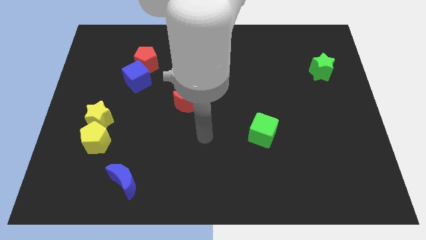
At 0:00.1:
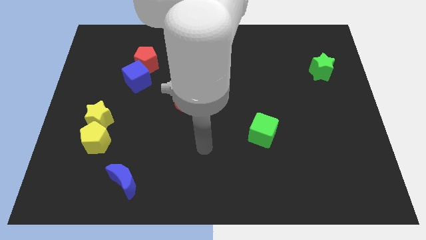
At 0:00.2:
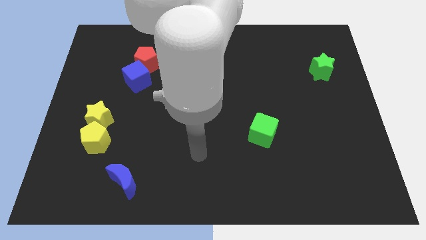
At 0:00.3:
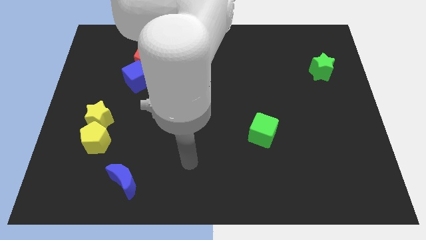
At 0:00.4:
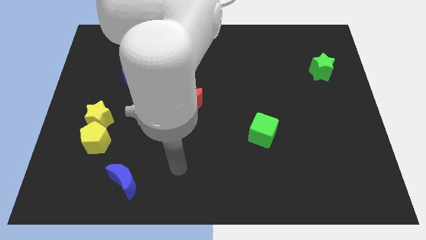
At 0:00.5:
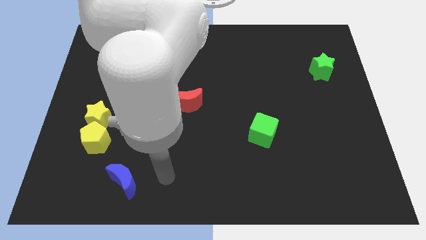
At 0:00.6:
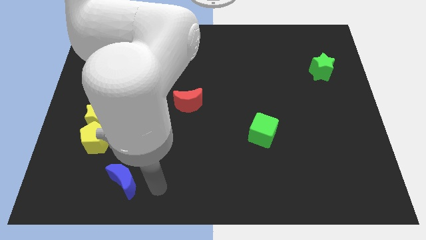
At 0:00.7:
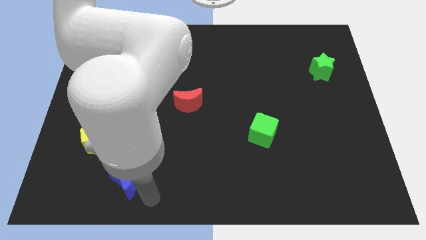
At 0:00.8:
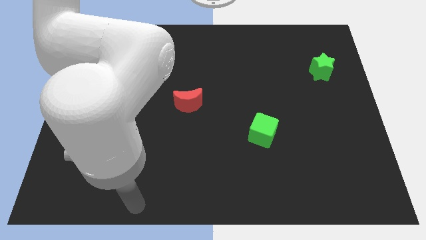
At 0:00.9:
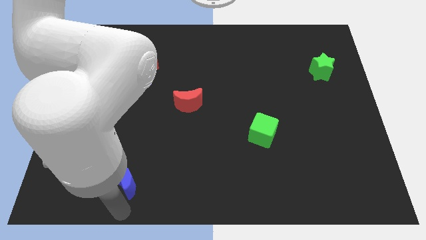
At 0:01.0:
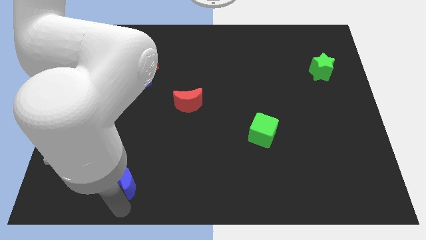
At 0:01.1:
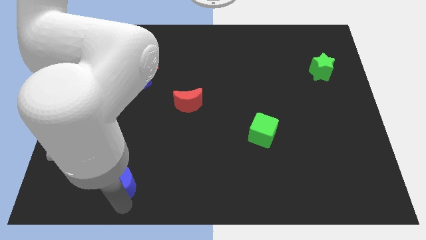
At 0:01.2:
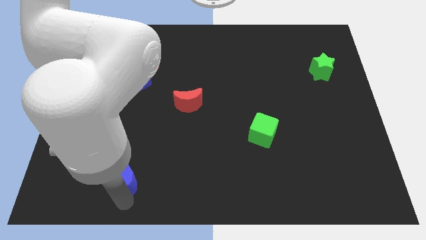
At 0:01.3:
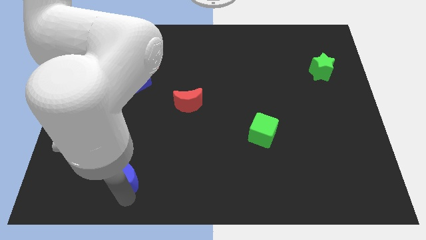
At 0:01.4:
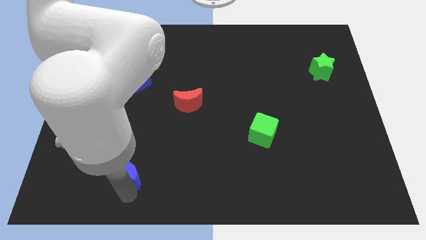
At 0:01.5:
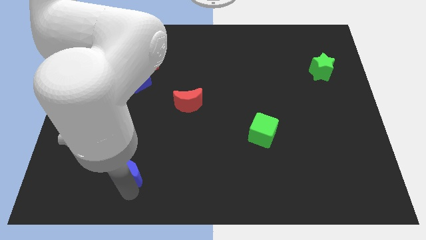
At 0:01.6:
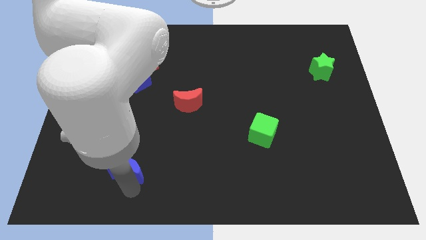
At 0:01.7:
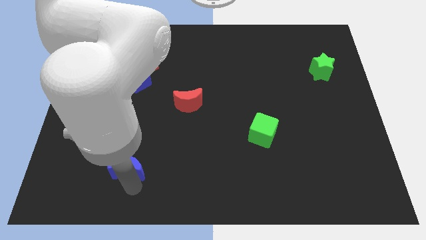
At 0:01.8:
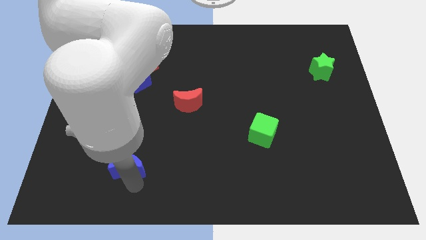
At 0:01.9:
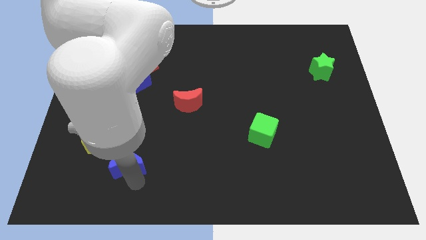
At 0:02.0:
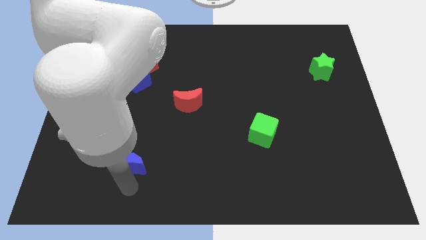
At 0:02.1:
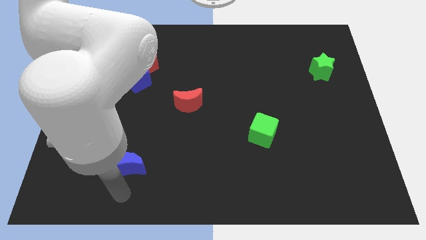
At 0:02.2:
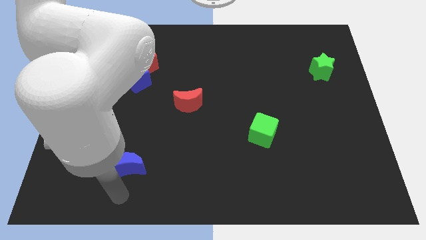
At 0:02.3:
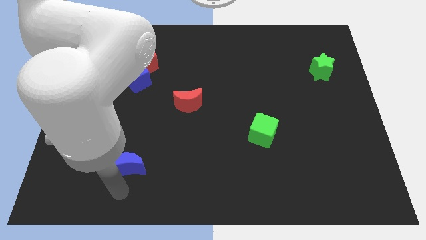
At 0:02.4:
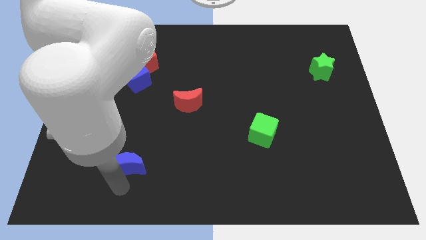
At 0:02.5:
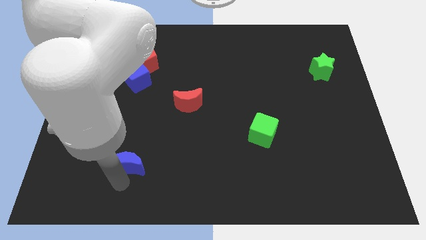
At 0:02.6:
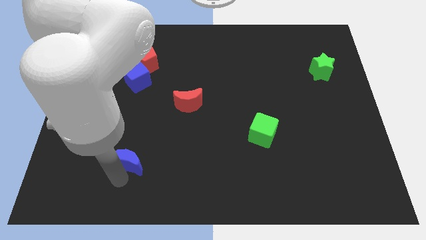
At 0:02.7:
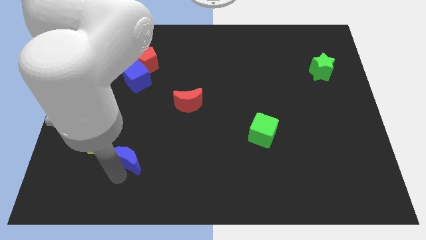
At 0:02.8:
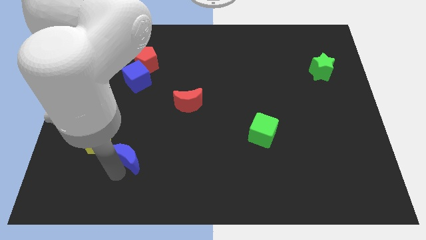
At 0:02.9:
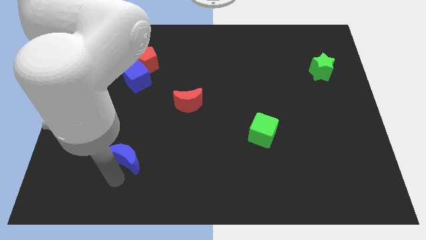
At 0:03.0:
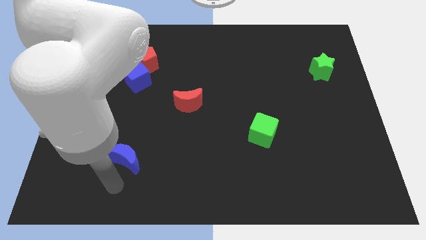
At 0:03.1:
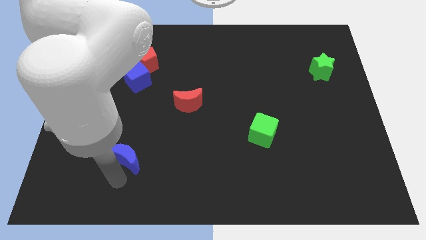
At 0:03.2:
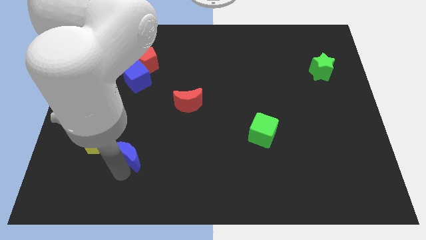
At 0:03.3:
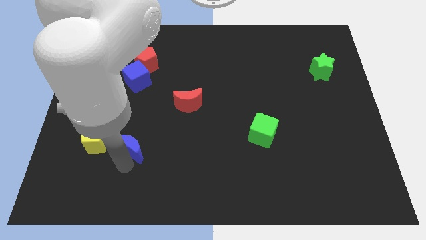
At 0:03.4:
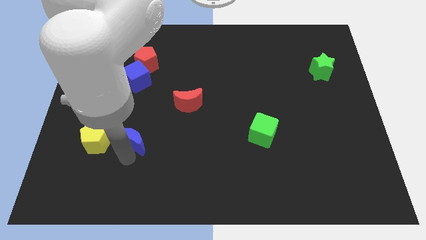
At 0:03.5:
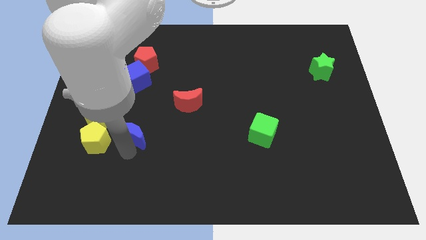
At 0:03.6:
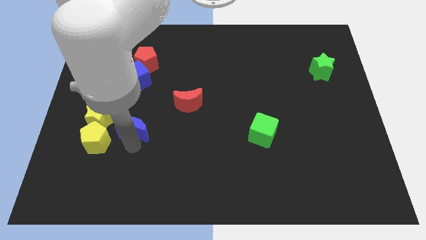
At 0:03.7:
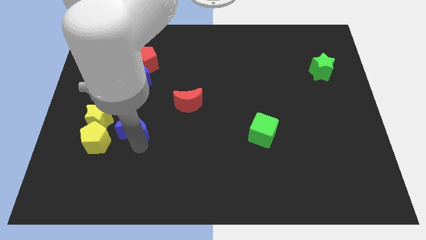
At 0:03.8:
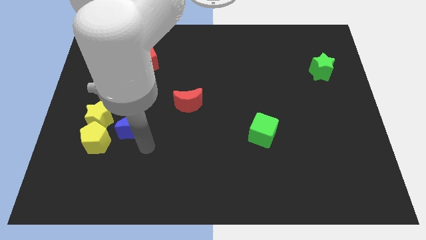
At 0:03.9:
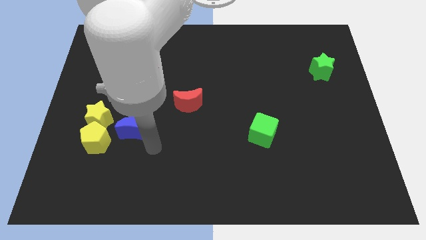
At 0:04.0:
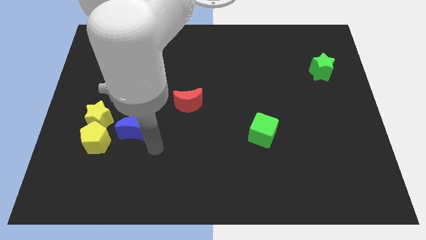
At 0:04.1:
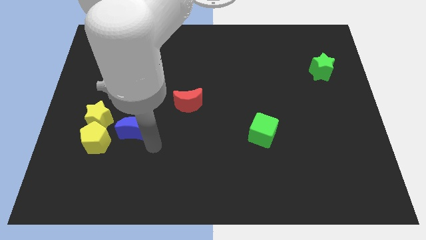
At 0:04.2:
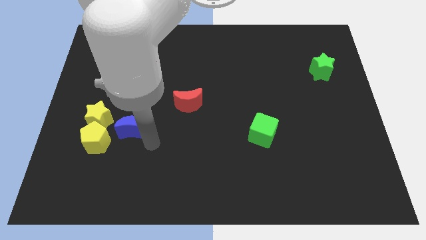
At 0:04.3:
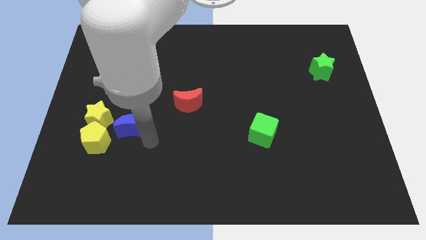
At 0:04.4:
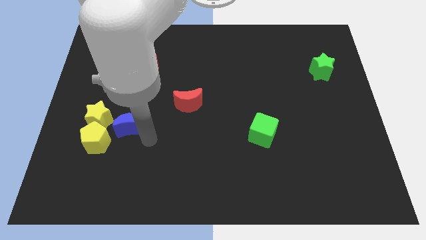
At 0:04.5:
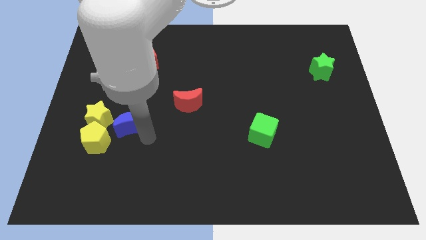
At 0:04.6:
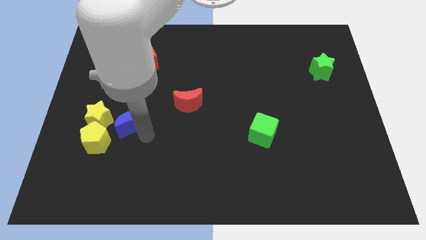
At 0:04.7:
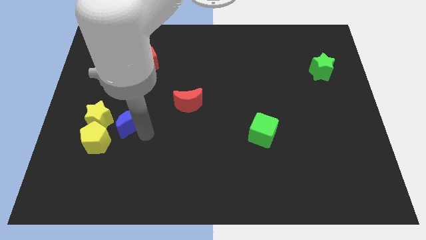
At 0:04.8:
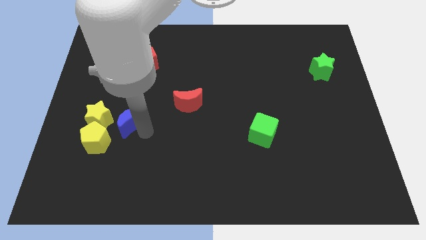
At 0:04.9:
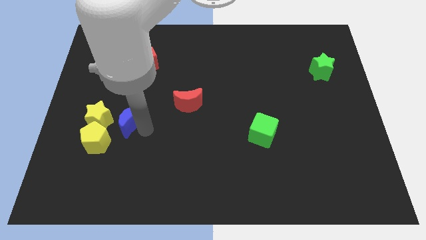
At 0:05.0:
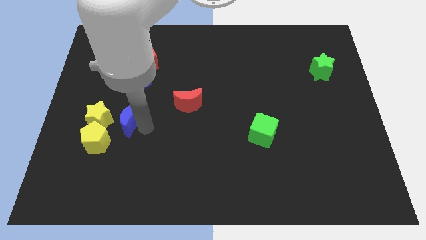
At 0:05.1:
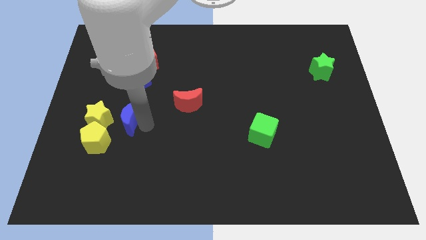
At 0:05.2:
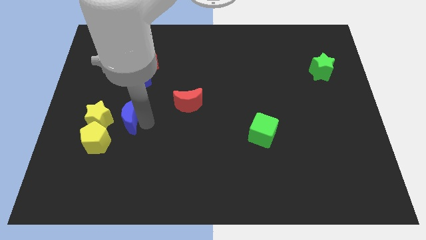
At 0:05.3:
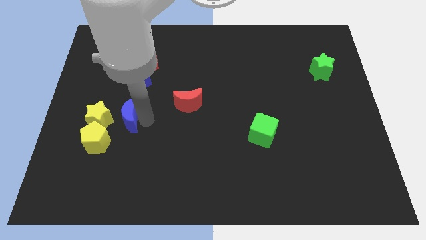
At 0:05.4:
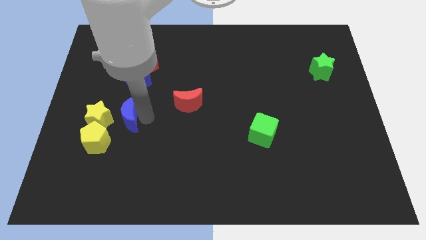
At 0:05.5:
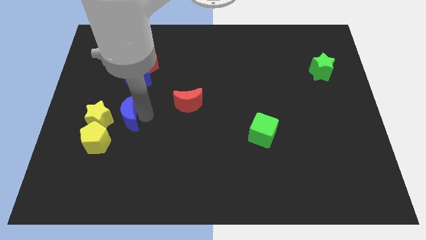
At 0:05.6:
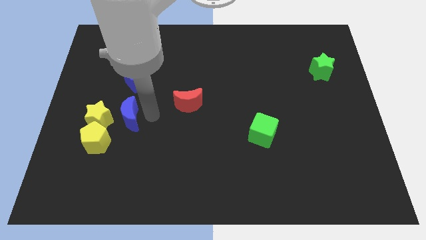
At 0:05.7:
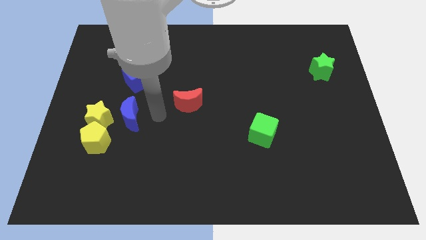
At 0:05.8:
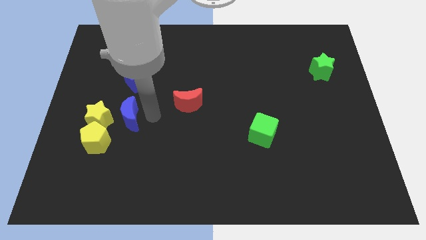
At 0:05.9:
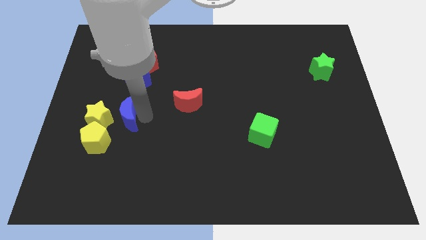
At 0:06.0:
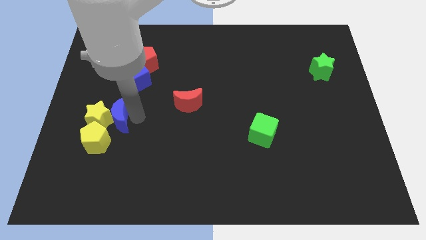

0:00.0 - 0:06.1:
move the blue moon close to the yellow star

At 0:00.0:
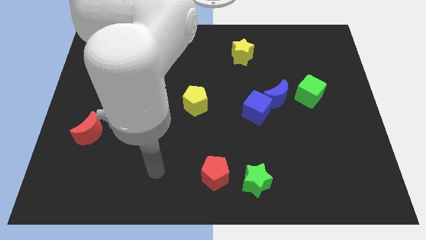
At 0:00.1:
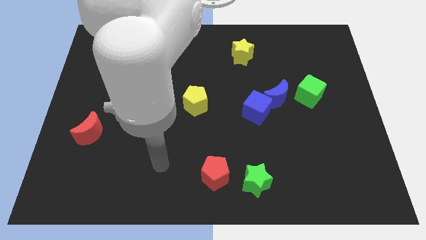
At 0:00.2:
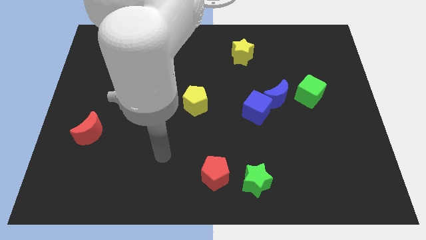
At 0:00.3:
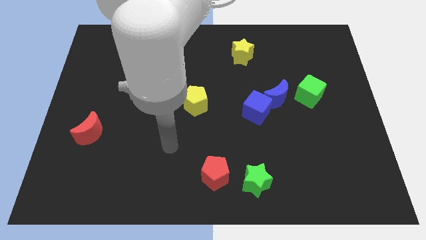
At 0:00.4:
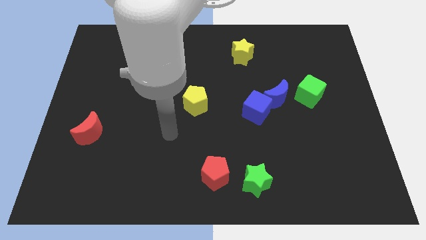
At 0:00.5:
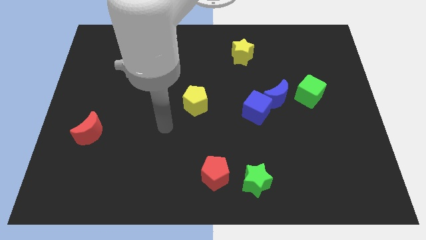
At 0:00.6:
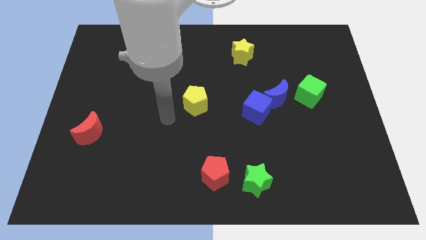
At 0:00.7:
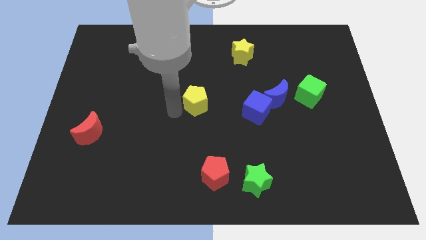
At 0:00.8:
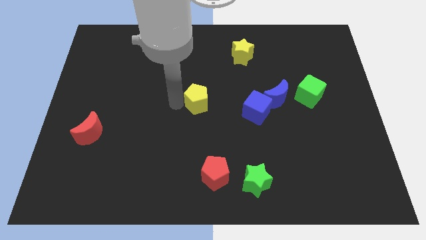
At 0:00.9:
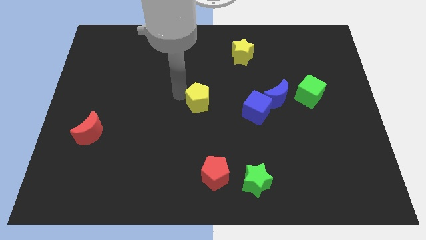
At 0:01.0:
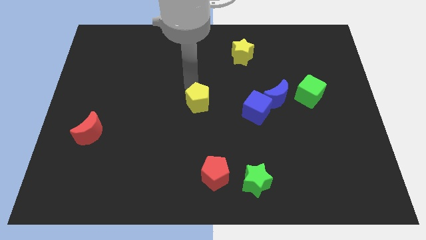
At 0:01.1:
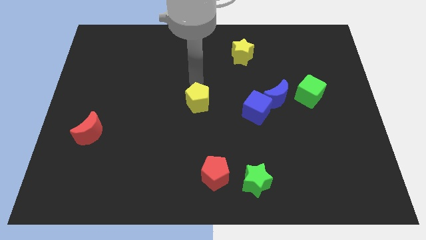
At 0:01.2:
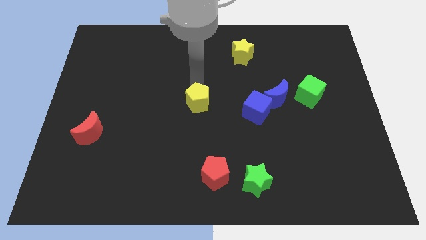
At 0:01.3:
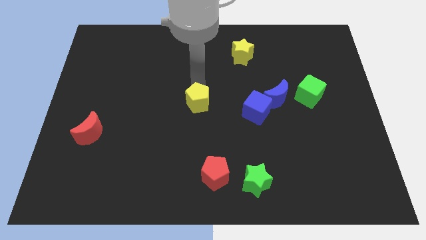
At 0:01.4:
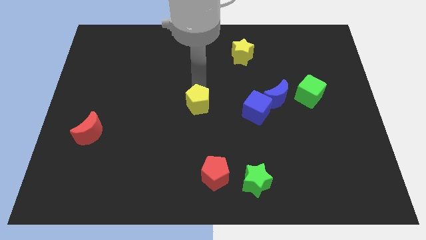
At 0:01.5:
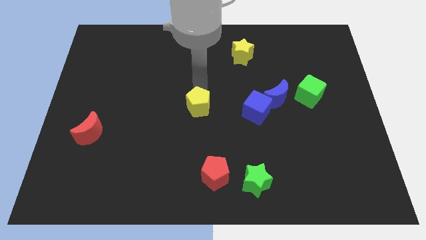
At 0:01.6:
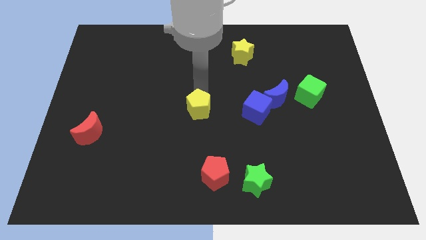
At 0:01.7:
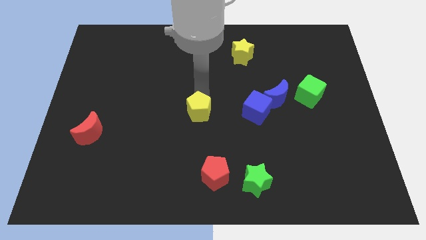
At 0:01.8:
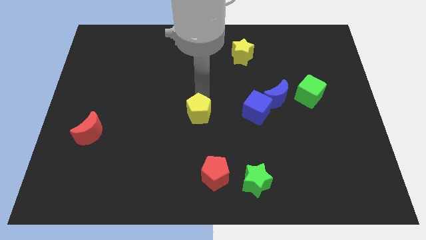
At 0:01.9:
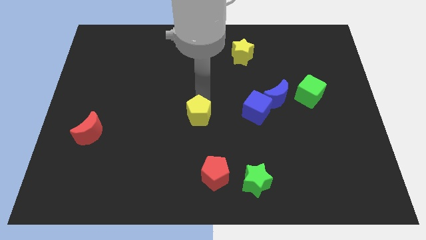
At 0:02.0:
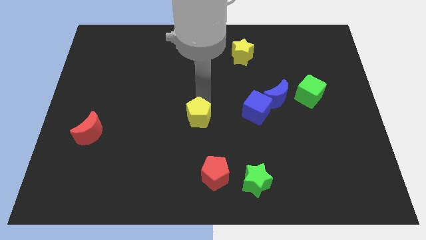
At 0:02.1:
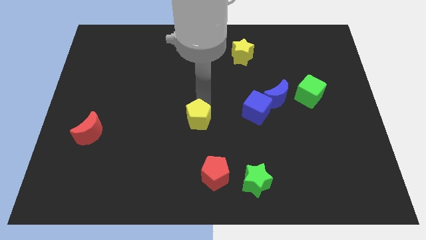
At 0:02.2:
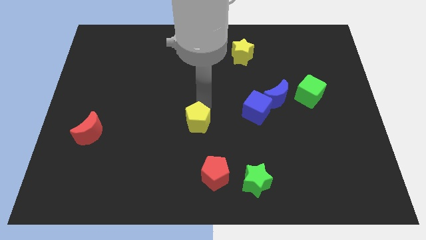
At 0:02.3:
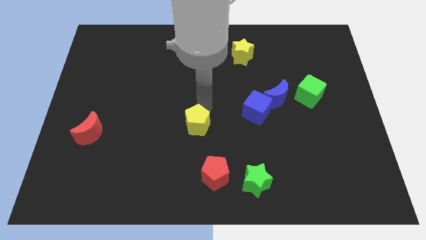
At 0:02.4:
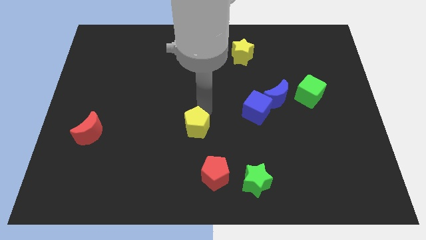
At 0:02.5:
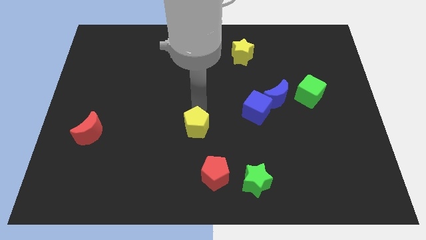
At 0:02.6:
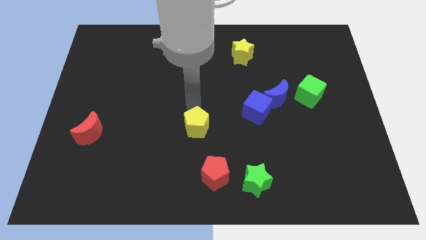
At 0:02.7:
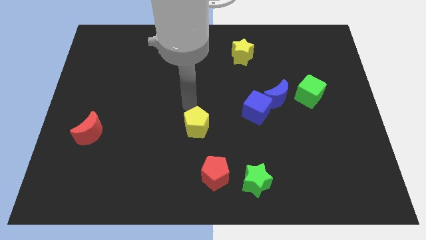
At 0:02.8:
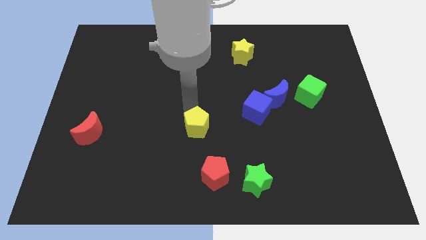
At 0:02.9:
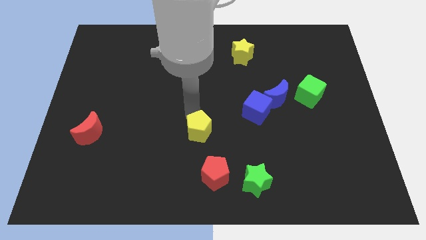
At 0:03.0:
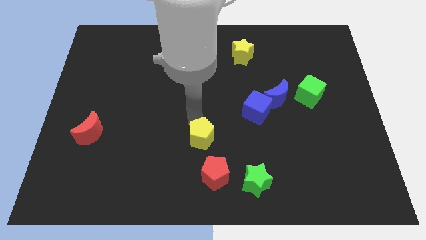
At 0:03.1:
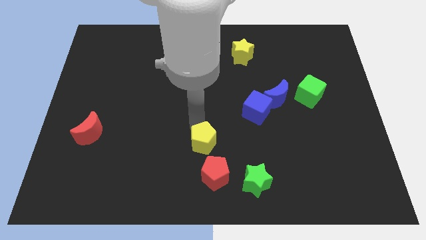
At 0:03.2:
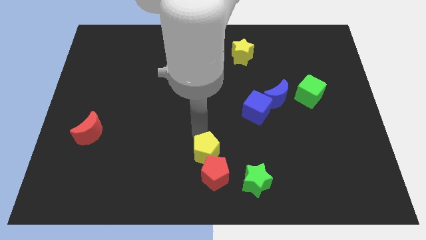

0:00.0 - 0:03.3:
move the yellow pentagon towards the red pentagon
